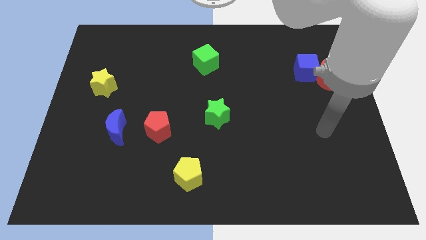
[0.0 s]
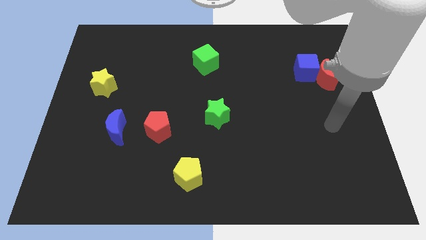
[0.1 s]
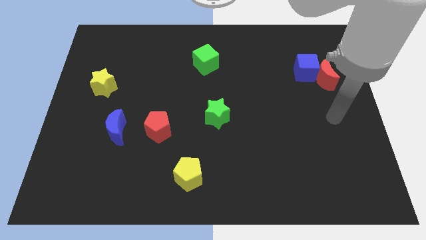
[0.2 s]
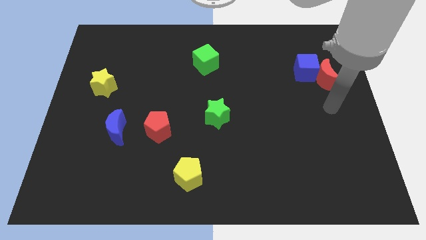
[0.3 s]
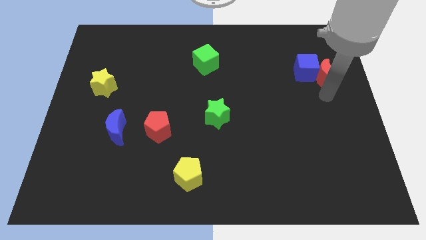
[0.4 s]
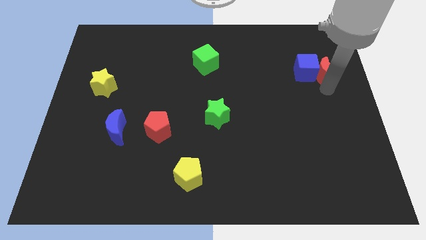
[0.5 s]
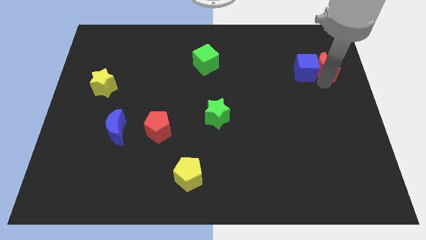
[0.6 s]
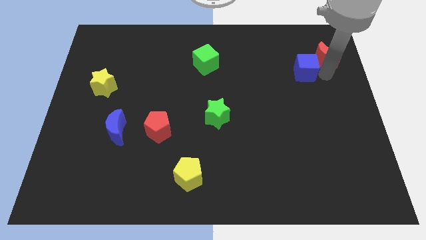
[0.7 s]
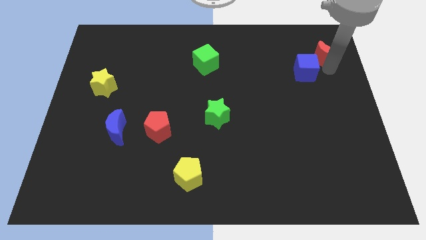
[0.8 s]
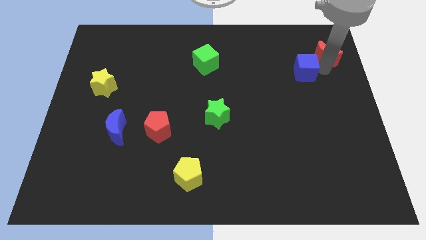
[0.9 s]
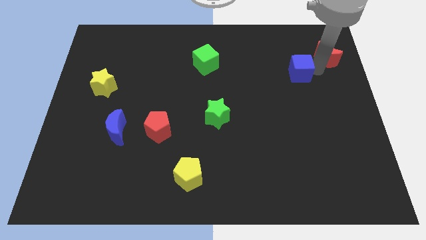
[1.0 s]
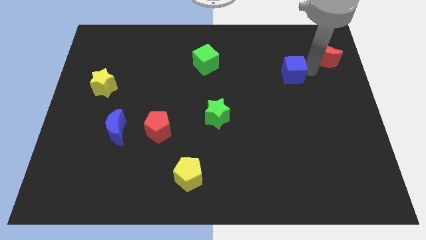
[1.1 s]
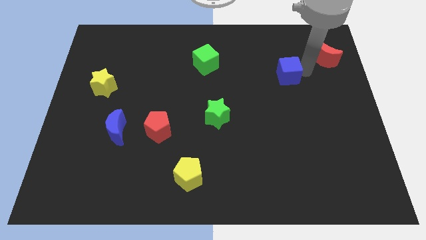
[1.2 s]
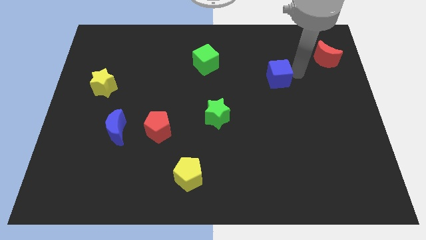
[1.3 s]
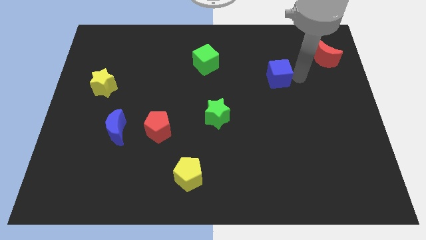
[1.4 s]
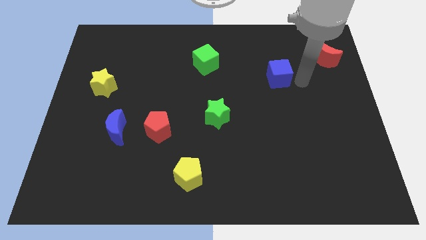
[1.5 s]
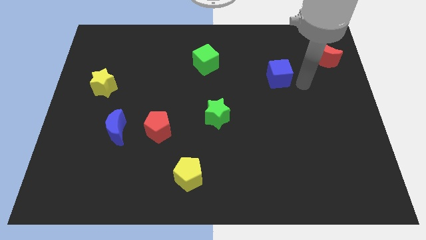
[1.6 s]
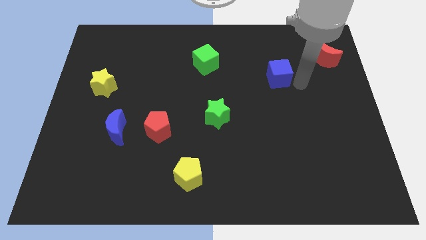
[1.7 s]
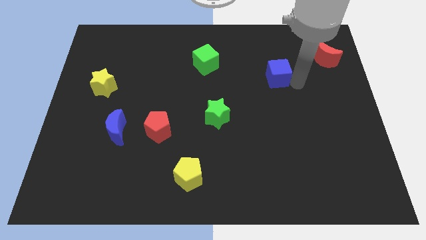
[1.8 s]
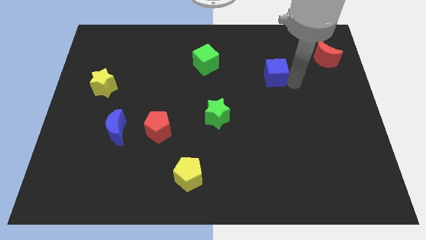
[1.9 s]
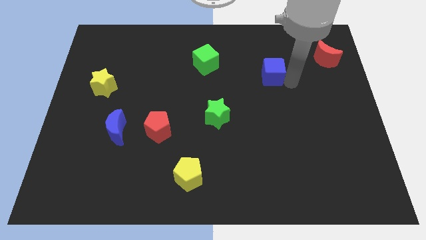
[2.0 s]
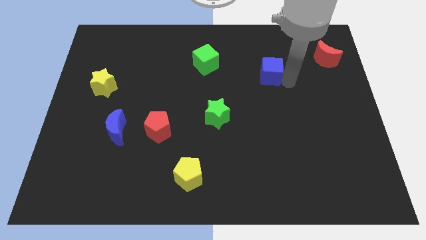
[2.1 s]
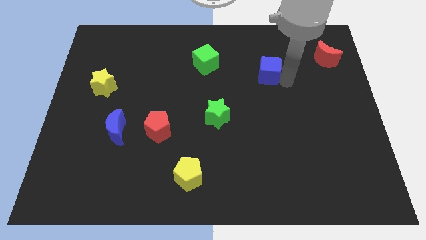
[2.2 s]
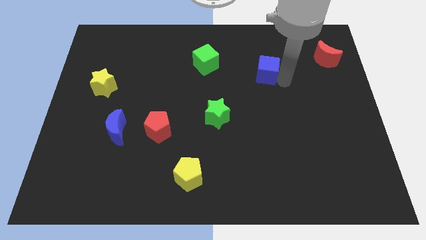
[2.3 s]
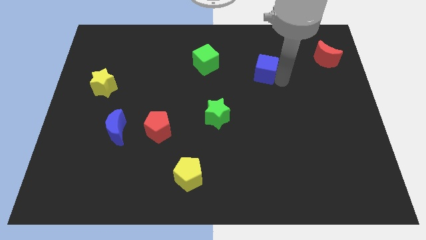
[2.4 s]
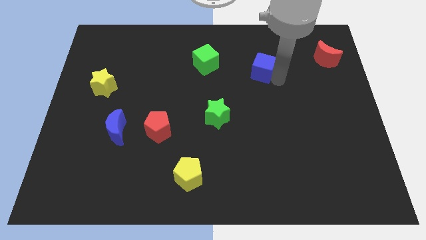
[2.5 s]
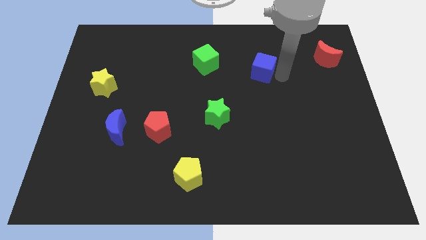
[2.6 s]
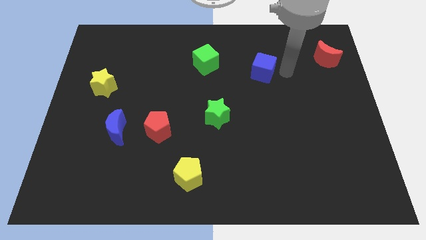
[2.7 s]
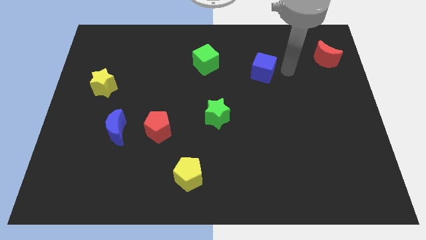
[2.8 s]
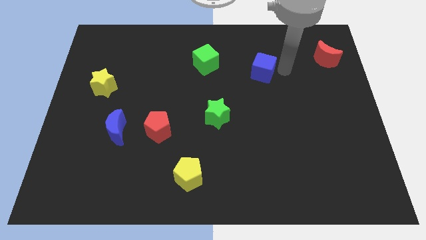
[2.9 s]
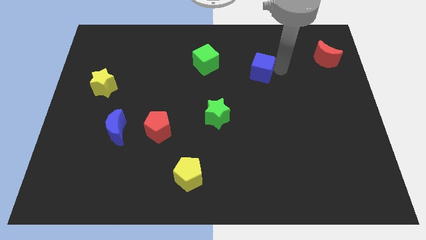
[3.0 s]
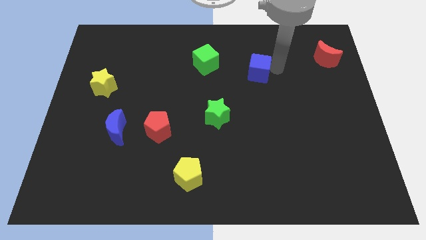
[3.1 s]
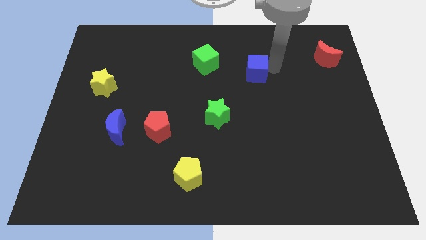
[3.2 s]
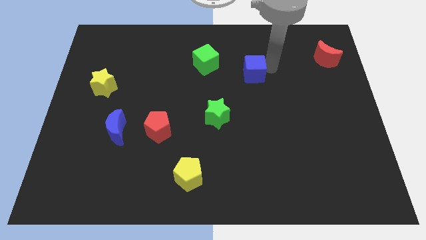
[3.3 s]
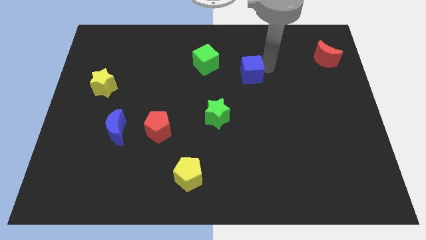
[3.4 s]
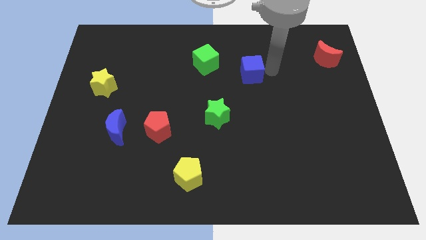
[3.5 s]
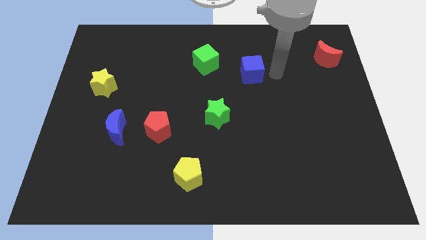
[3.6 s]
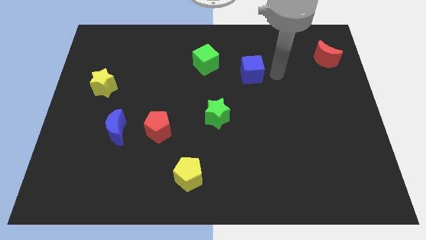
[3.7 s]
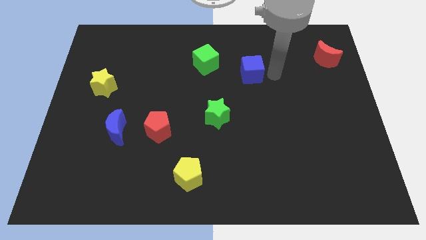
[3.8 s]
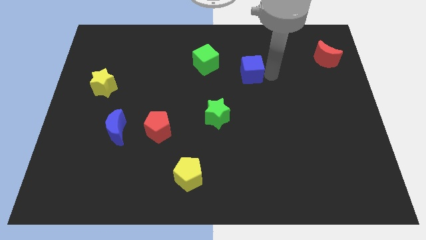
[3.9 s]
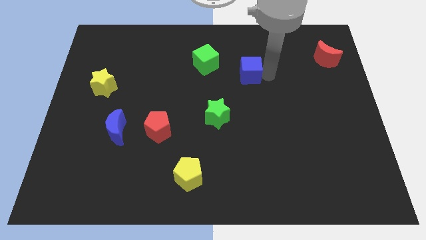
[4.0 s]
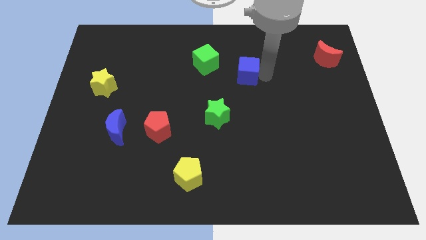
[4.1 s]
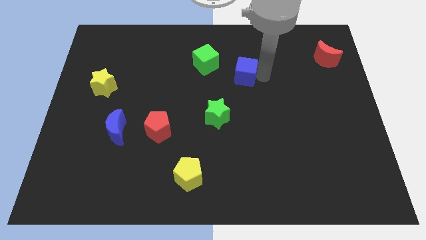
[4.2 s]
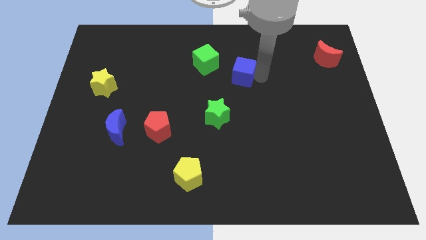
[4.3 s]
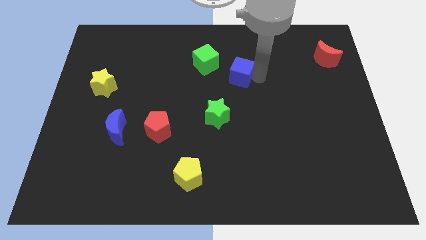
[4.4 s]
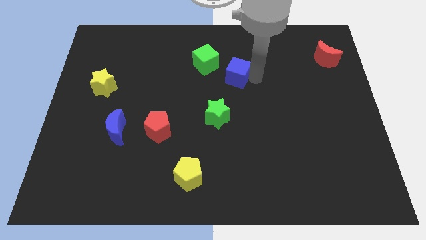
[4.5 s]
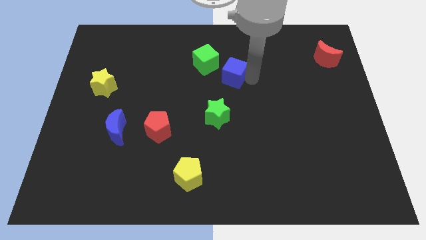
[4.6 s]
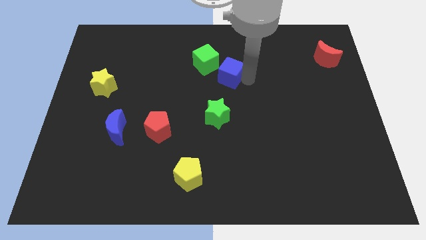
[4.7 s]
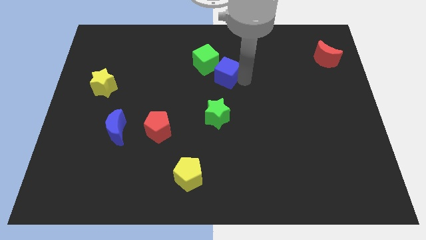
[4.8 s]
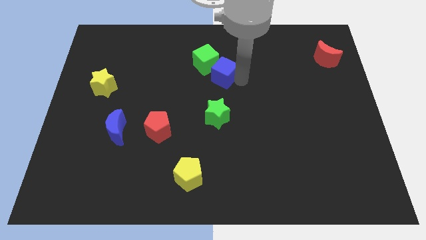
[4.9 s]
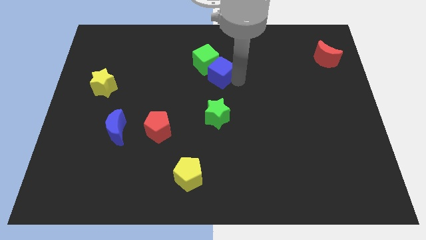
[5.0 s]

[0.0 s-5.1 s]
slide the blue cube next to the green cube

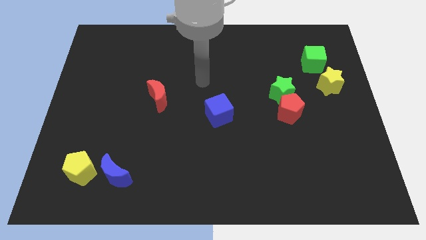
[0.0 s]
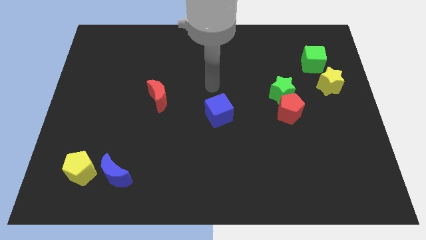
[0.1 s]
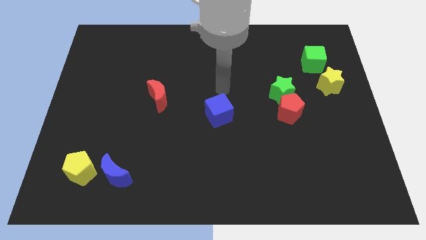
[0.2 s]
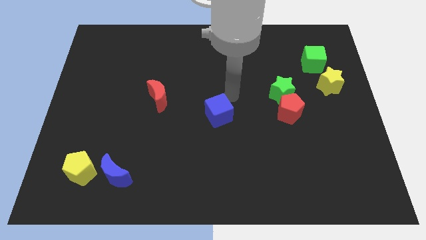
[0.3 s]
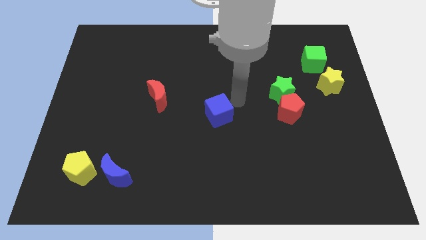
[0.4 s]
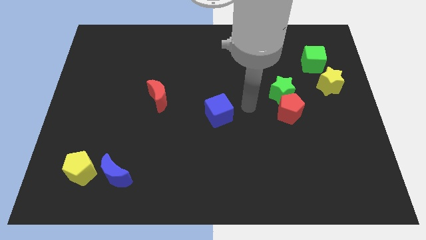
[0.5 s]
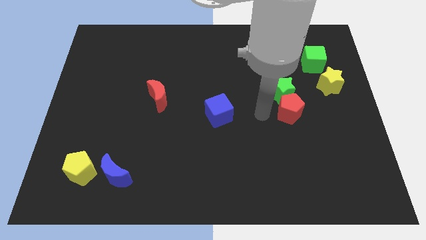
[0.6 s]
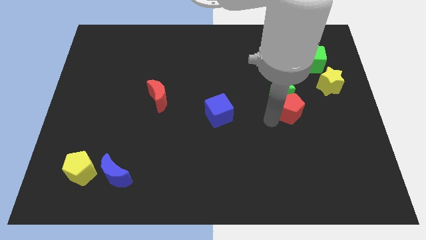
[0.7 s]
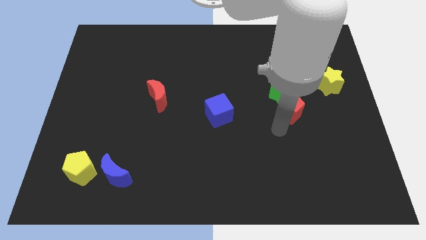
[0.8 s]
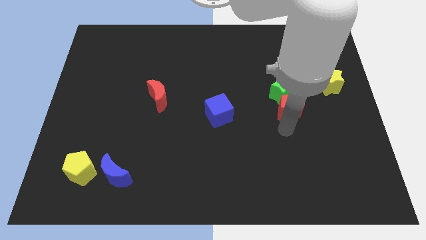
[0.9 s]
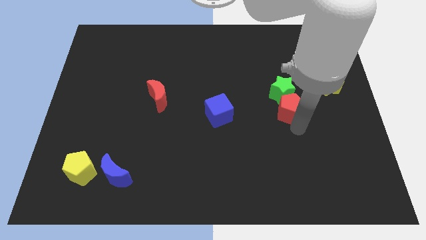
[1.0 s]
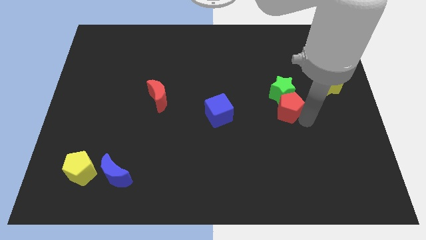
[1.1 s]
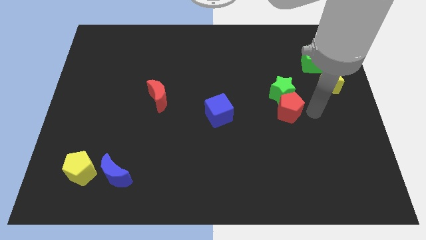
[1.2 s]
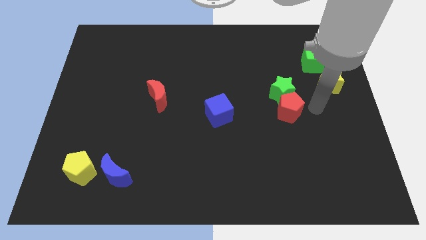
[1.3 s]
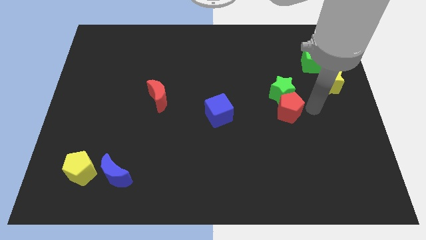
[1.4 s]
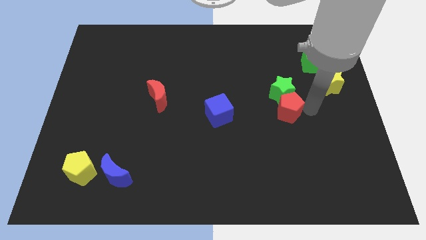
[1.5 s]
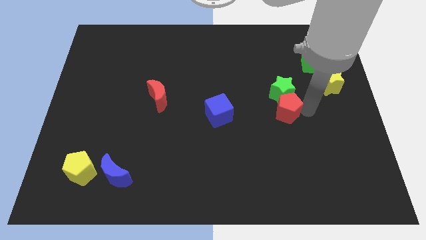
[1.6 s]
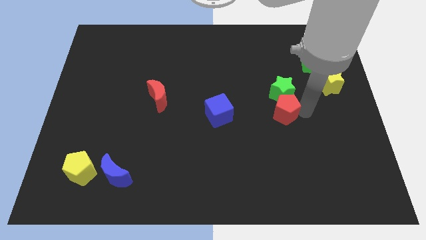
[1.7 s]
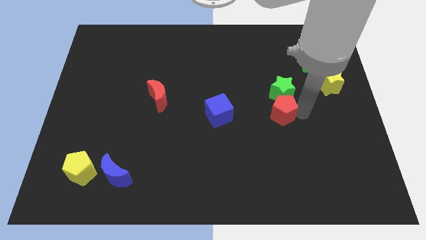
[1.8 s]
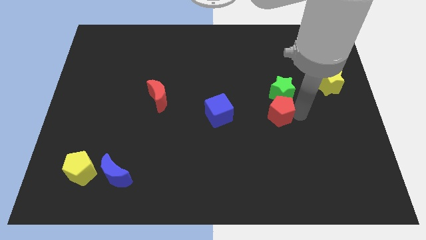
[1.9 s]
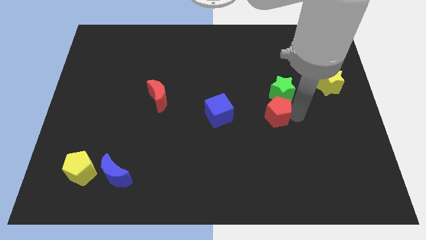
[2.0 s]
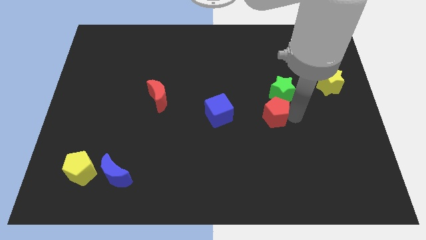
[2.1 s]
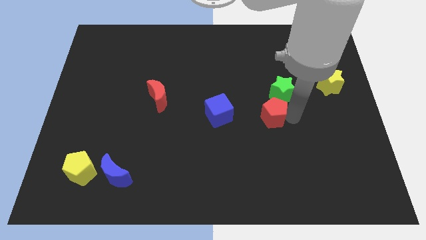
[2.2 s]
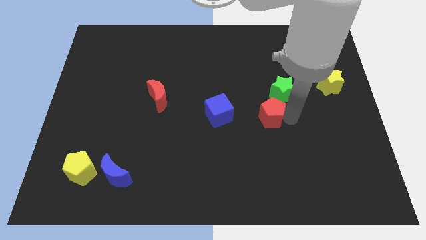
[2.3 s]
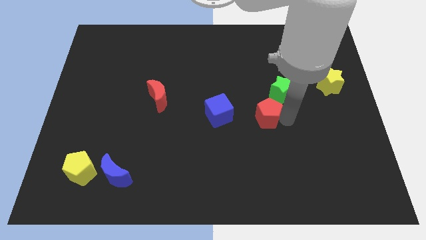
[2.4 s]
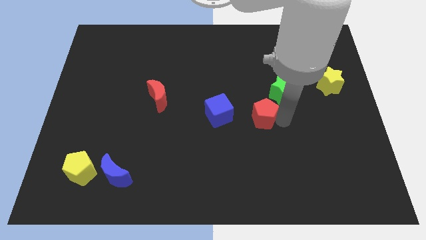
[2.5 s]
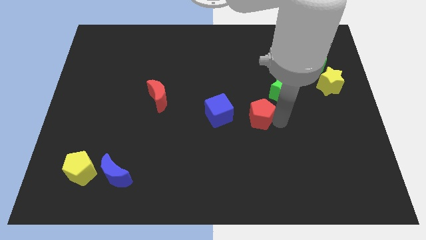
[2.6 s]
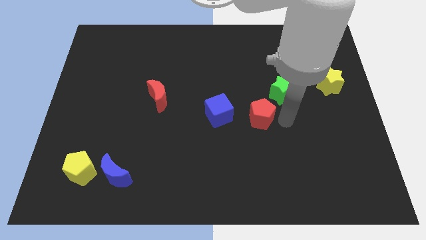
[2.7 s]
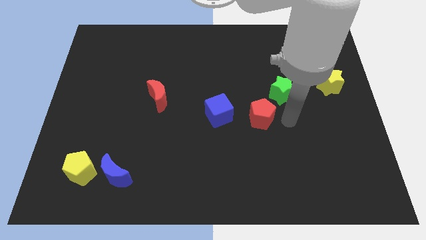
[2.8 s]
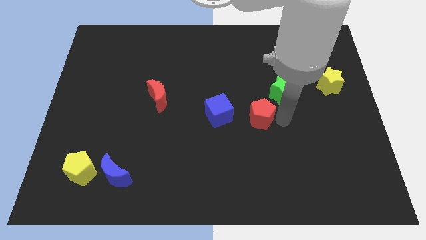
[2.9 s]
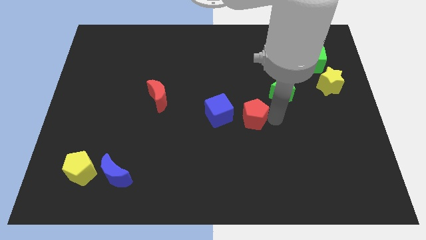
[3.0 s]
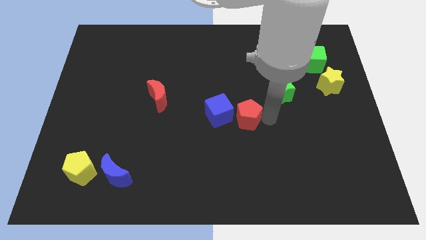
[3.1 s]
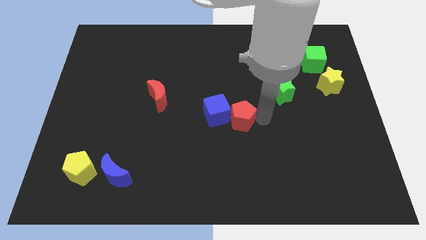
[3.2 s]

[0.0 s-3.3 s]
push the red pentagon next to the blue cube
